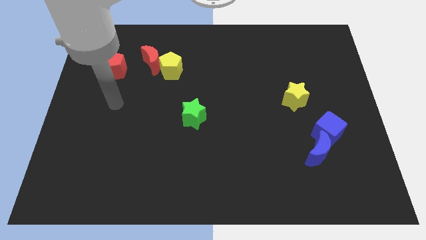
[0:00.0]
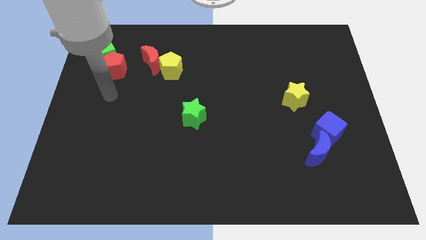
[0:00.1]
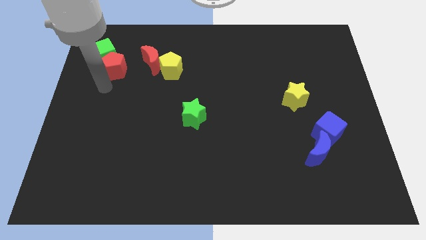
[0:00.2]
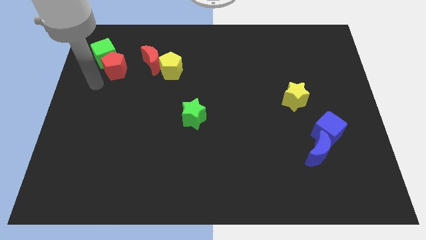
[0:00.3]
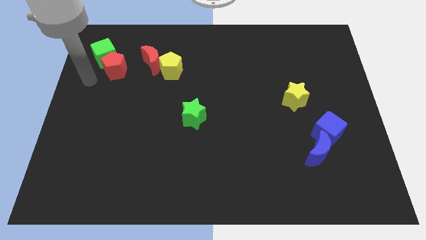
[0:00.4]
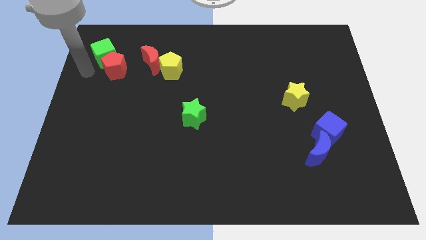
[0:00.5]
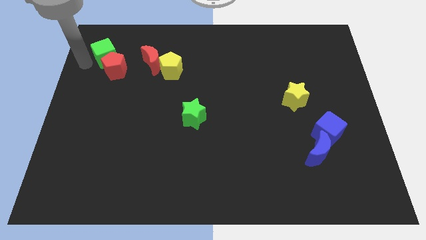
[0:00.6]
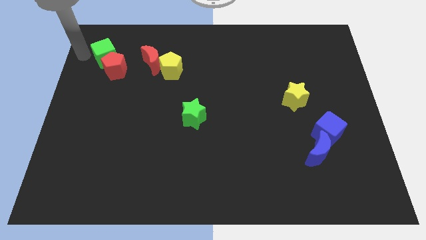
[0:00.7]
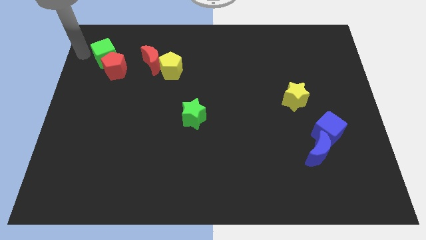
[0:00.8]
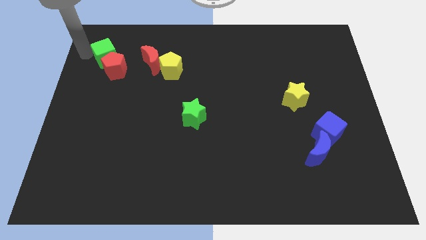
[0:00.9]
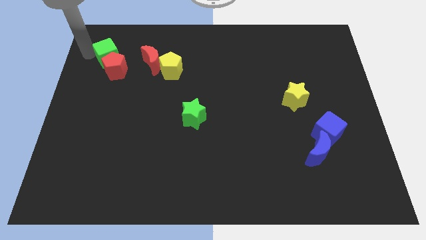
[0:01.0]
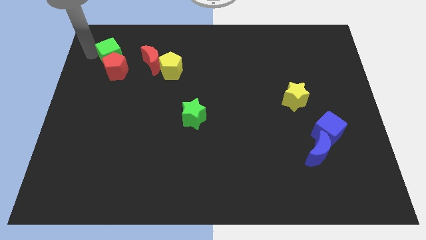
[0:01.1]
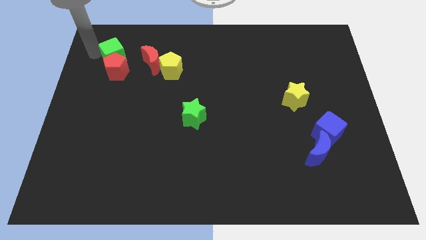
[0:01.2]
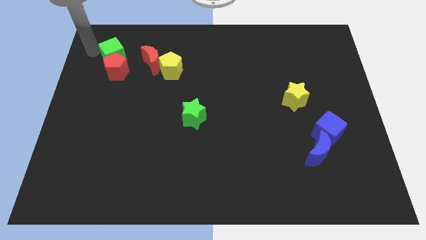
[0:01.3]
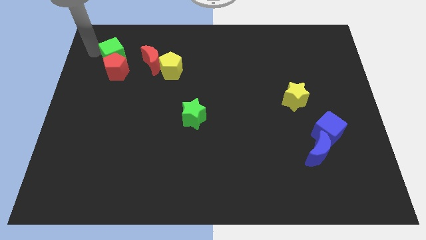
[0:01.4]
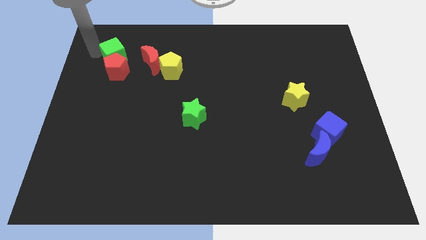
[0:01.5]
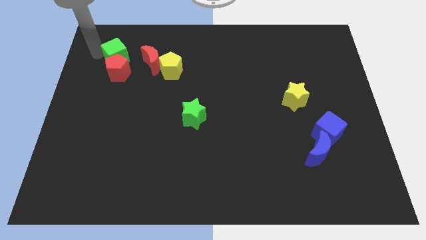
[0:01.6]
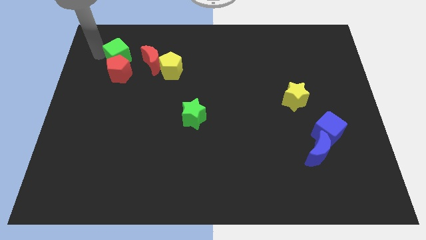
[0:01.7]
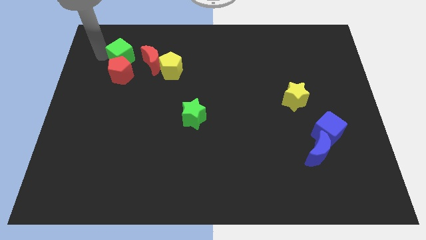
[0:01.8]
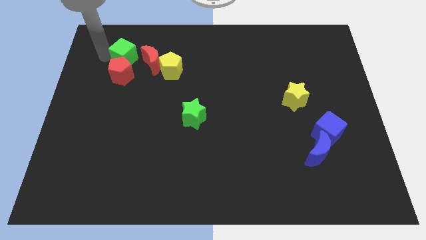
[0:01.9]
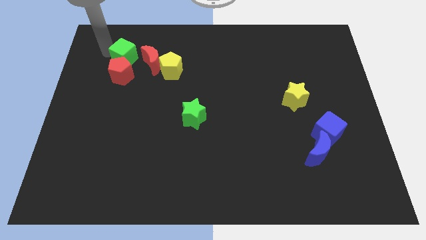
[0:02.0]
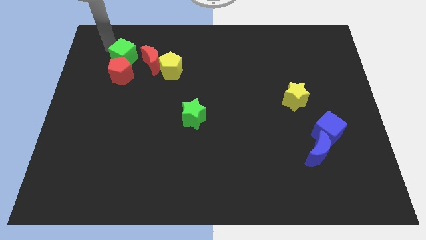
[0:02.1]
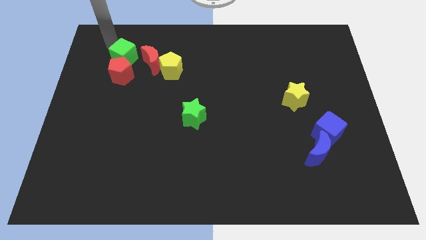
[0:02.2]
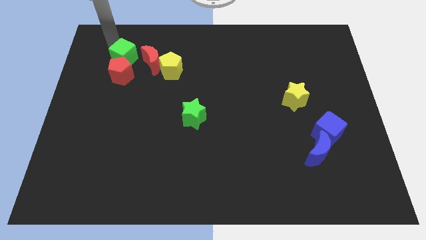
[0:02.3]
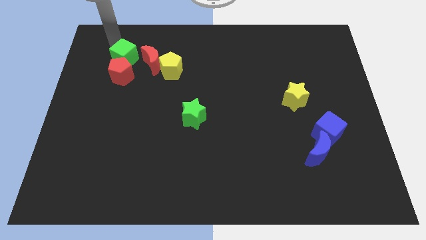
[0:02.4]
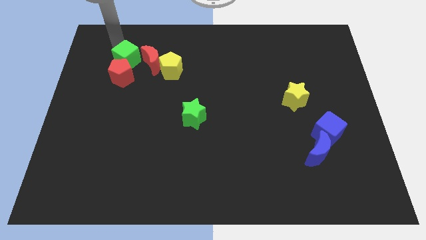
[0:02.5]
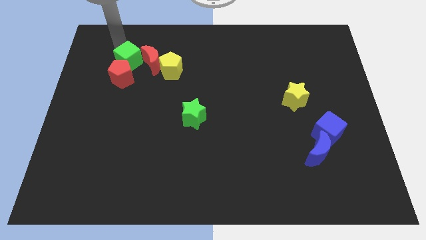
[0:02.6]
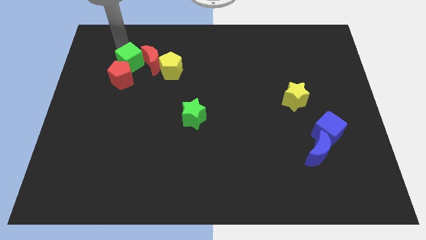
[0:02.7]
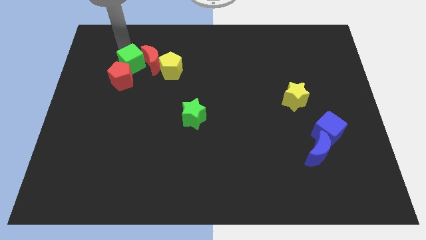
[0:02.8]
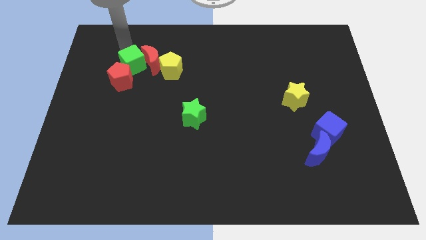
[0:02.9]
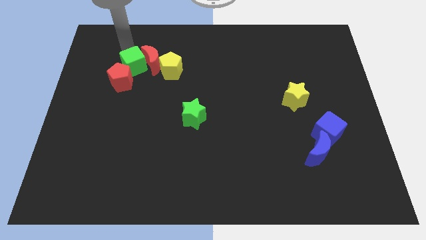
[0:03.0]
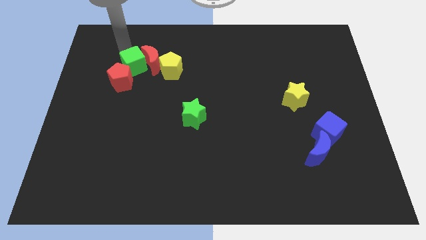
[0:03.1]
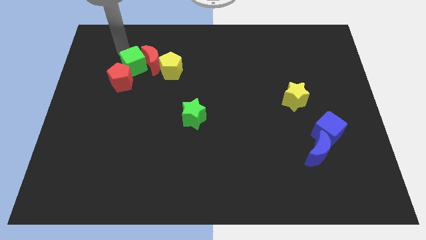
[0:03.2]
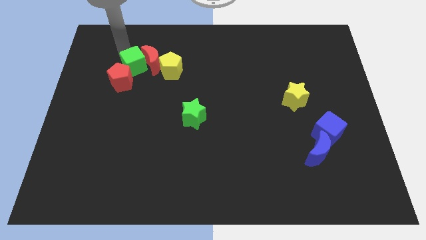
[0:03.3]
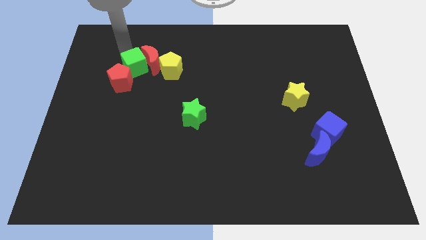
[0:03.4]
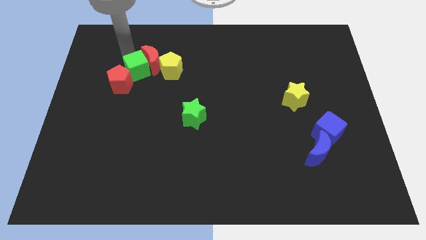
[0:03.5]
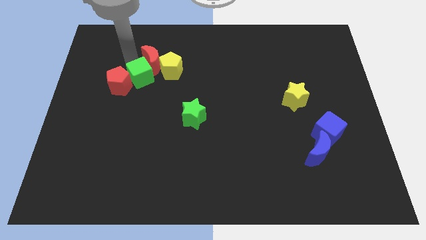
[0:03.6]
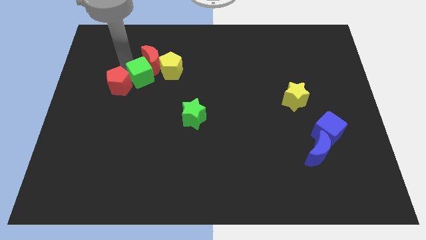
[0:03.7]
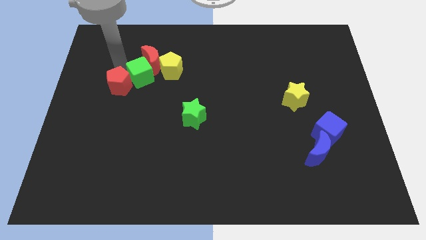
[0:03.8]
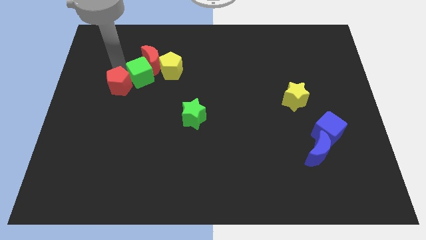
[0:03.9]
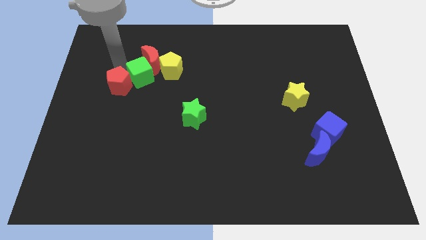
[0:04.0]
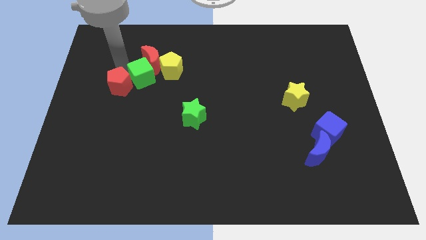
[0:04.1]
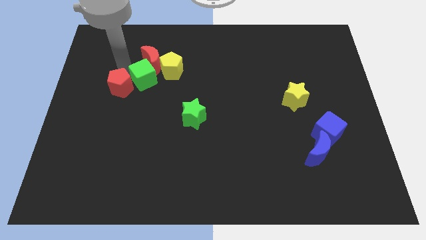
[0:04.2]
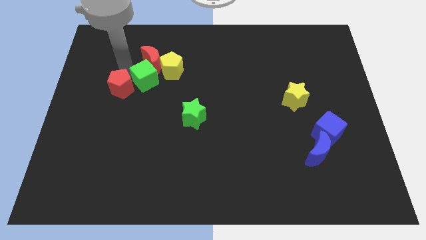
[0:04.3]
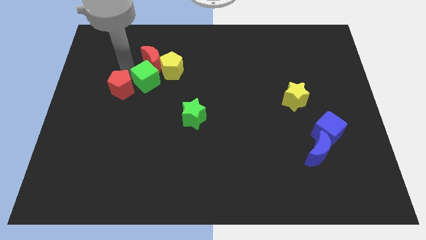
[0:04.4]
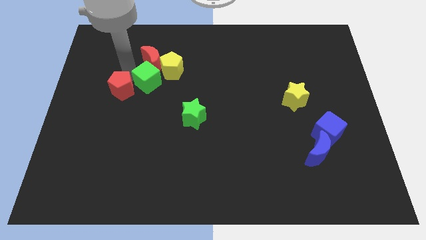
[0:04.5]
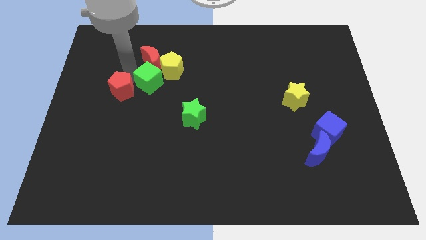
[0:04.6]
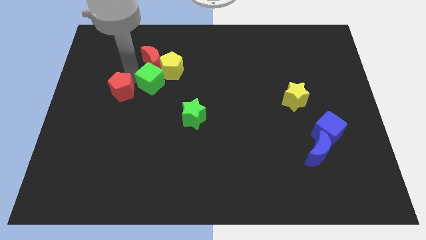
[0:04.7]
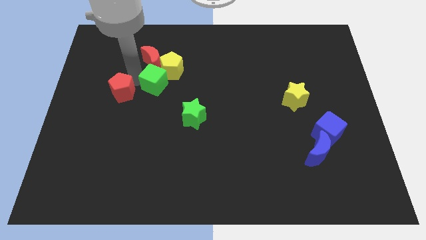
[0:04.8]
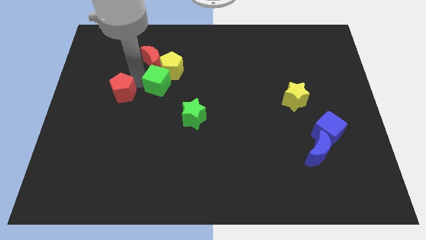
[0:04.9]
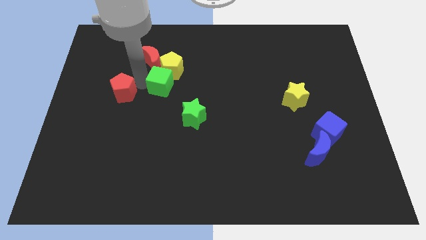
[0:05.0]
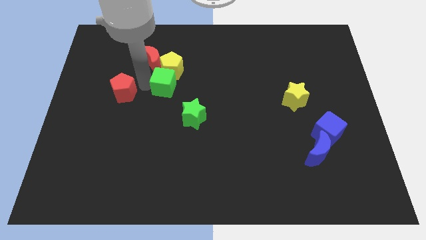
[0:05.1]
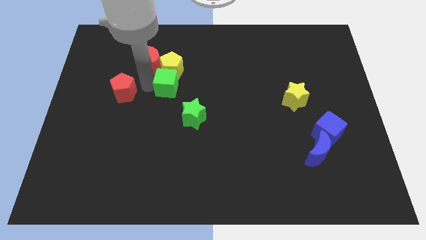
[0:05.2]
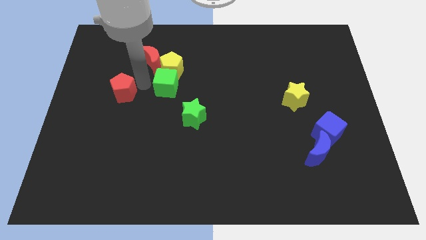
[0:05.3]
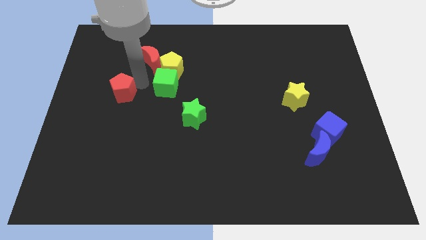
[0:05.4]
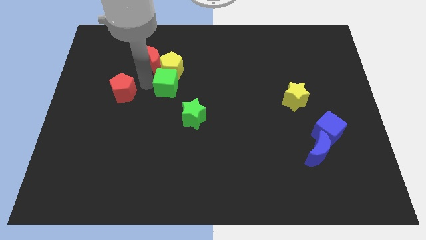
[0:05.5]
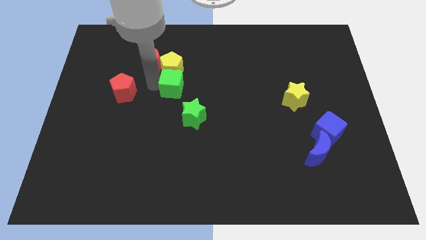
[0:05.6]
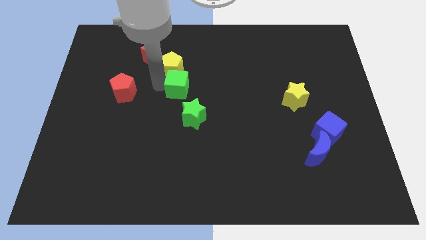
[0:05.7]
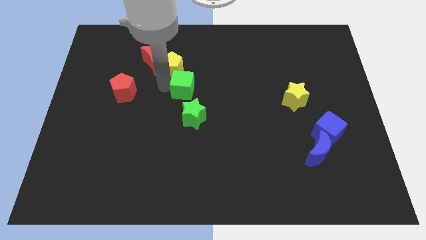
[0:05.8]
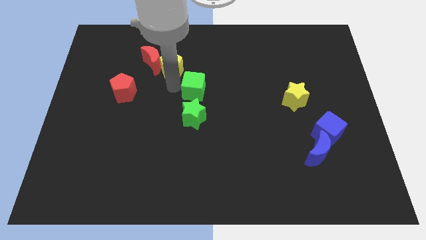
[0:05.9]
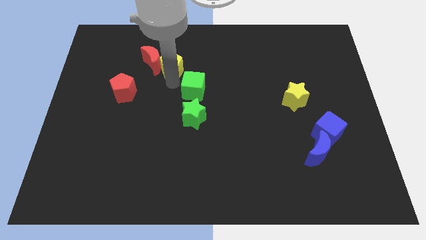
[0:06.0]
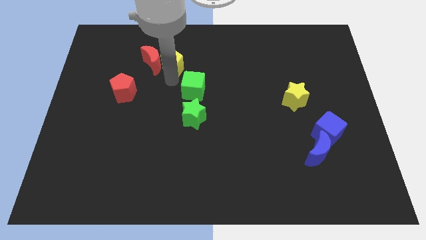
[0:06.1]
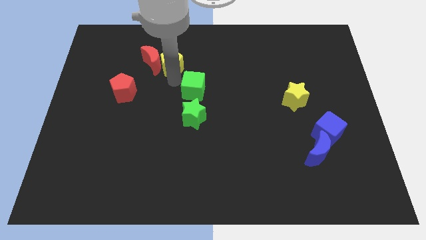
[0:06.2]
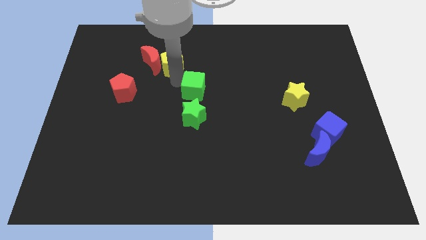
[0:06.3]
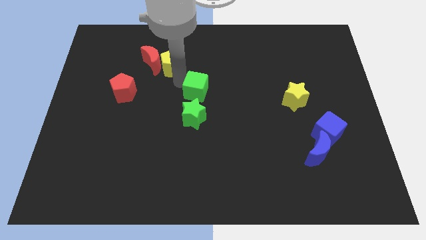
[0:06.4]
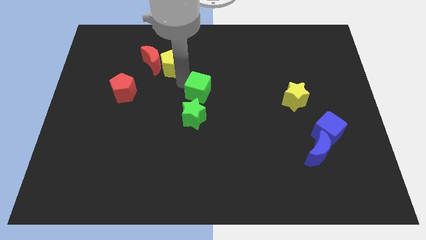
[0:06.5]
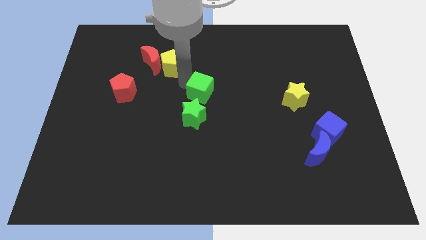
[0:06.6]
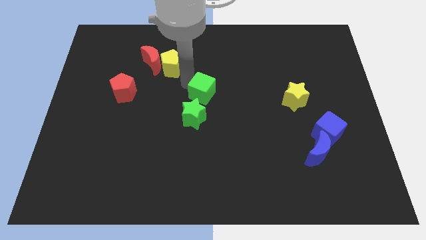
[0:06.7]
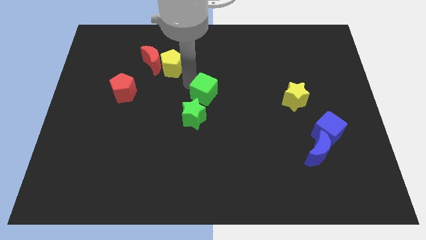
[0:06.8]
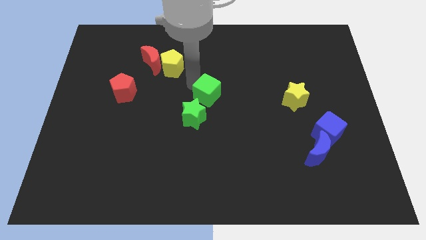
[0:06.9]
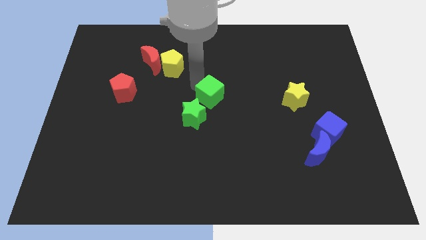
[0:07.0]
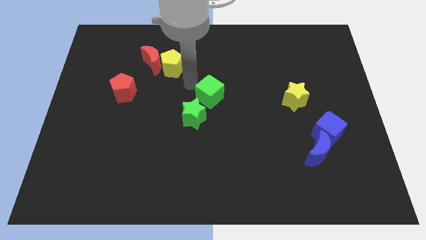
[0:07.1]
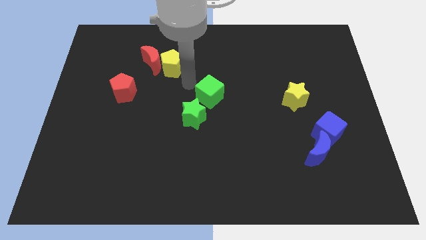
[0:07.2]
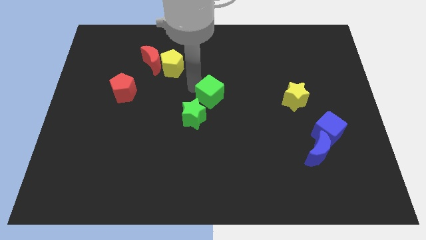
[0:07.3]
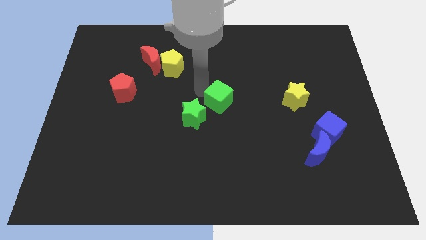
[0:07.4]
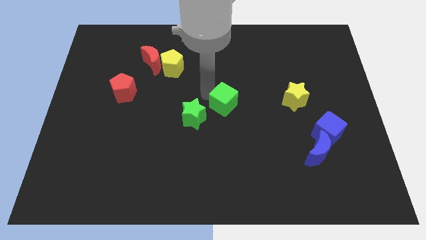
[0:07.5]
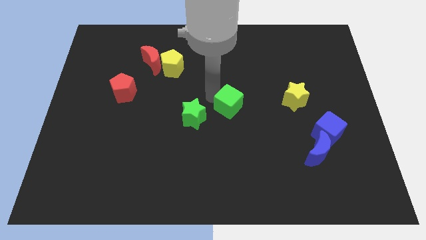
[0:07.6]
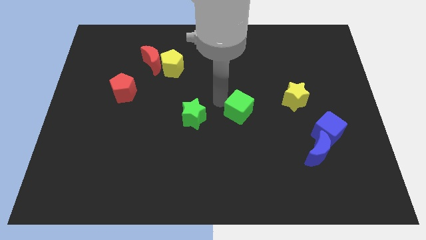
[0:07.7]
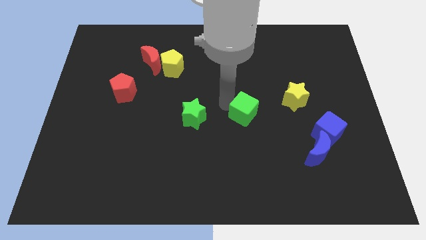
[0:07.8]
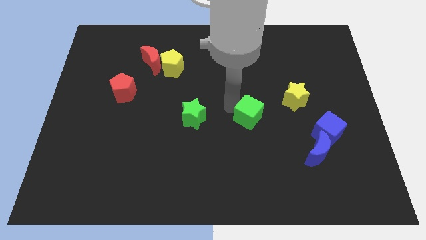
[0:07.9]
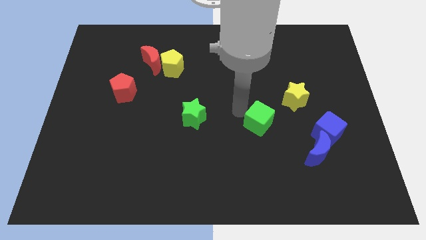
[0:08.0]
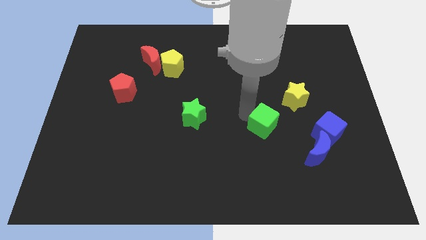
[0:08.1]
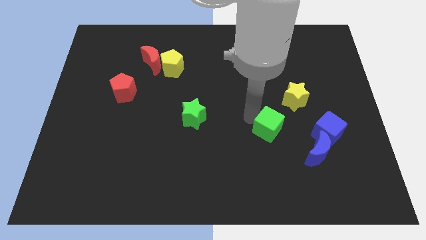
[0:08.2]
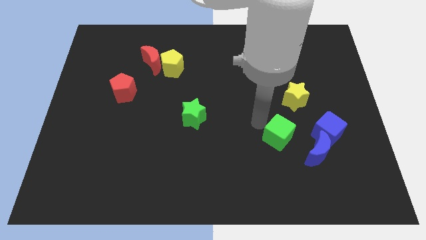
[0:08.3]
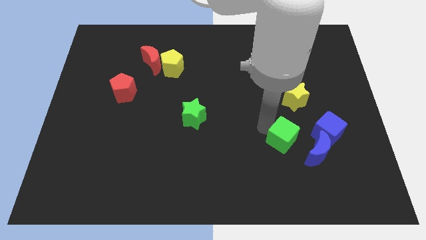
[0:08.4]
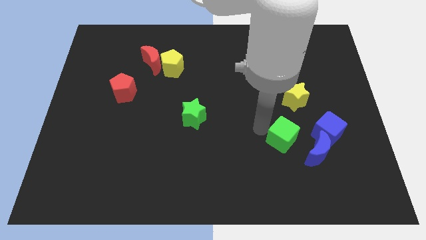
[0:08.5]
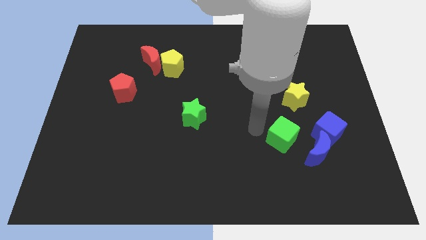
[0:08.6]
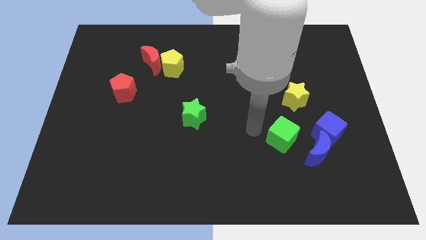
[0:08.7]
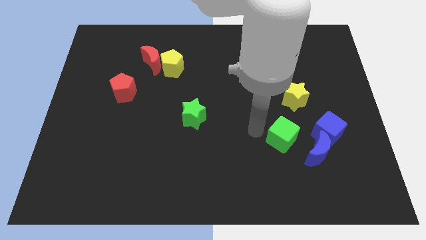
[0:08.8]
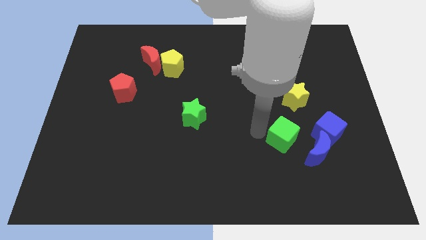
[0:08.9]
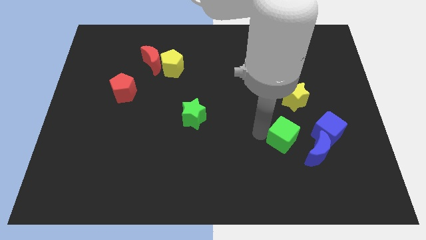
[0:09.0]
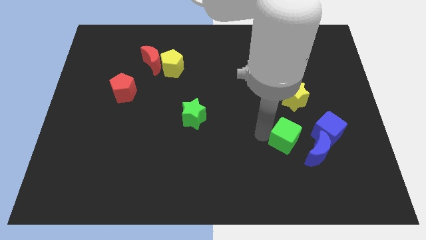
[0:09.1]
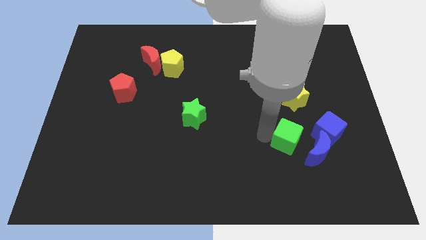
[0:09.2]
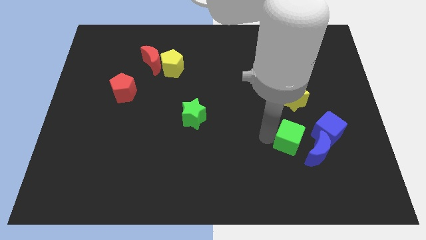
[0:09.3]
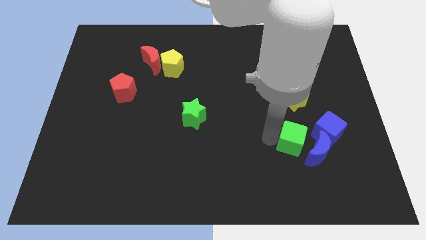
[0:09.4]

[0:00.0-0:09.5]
push the green cube close to the blue moon
